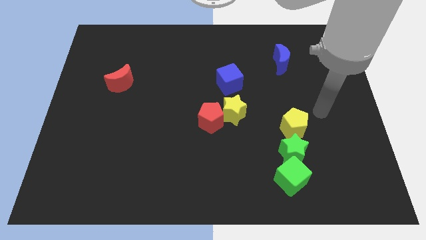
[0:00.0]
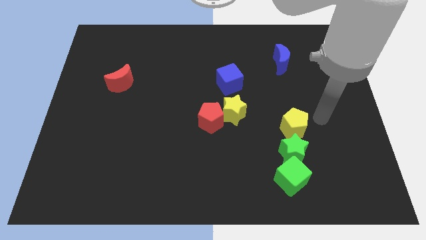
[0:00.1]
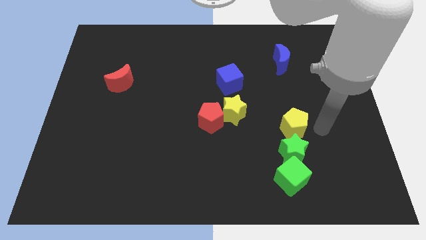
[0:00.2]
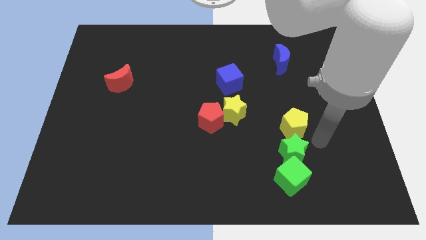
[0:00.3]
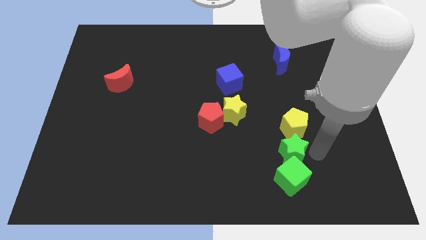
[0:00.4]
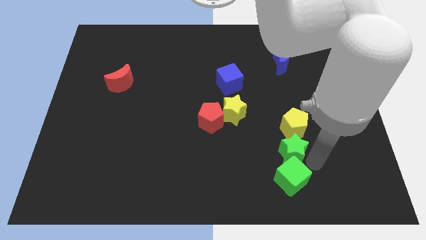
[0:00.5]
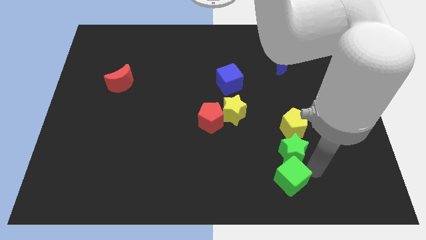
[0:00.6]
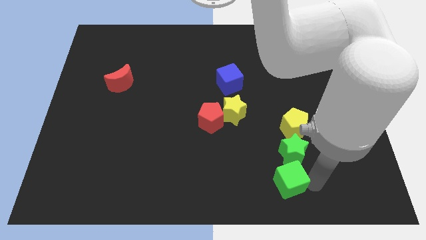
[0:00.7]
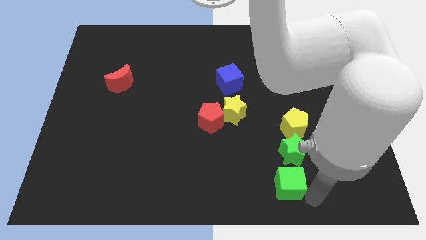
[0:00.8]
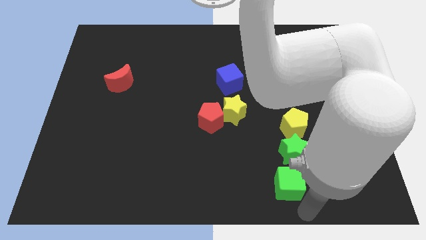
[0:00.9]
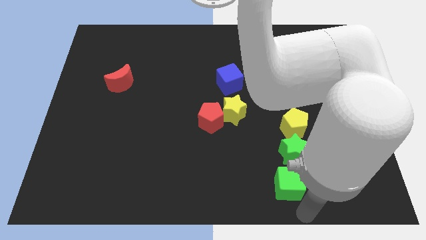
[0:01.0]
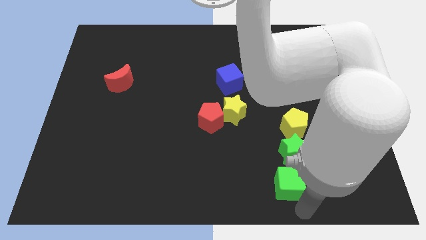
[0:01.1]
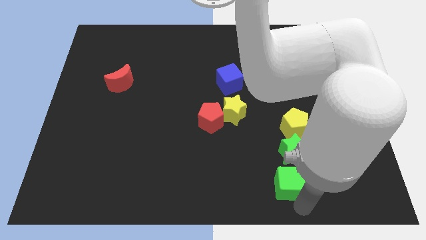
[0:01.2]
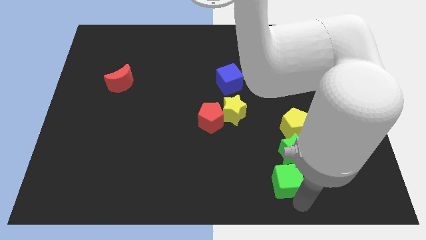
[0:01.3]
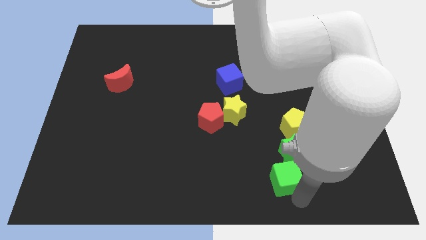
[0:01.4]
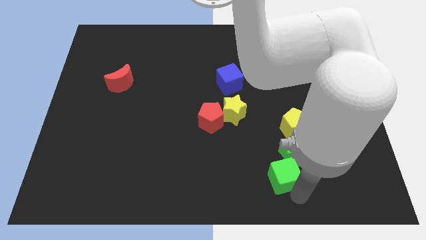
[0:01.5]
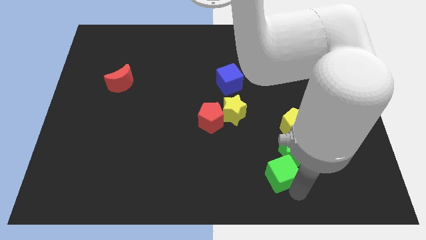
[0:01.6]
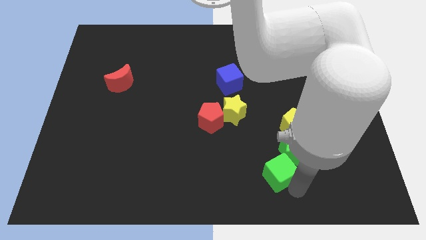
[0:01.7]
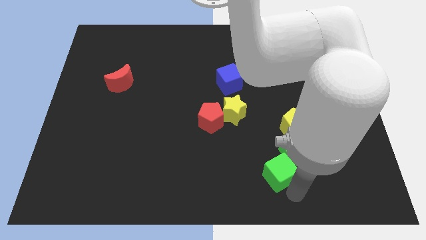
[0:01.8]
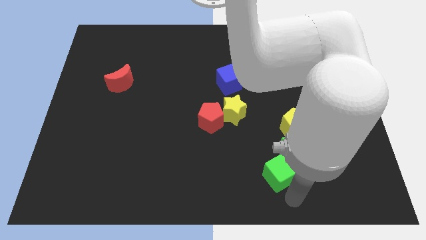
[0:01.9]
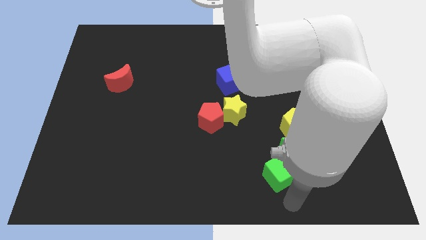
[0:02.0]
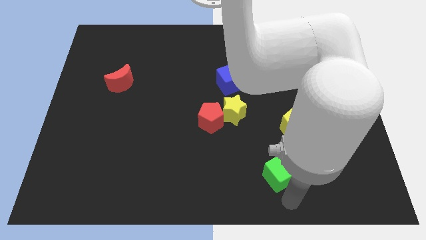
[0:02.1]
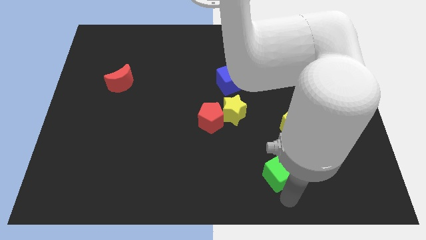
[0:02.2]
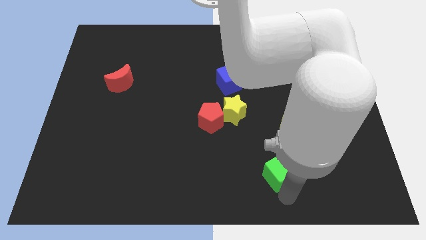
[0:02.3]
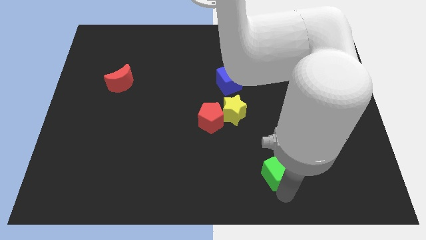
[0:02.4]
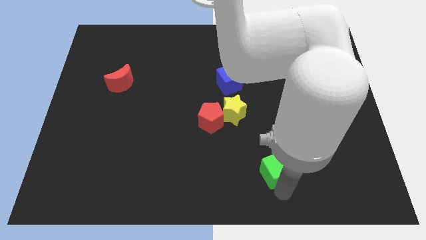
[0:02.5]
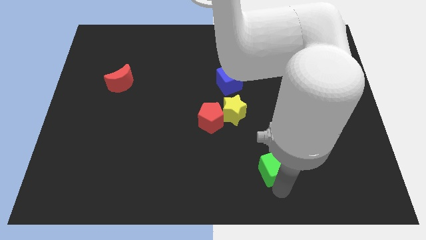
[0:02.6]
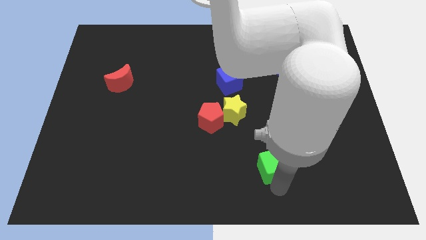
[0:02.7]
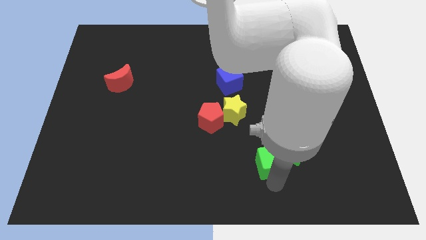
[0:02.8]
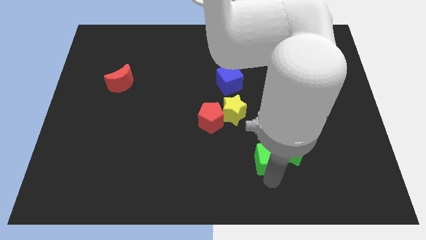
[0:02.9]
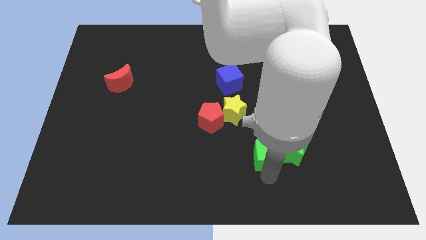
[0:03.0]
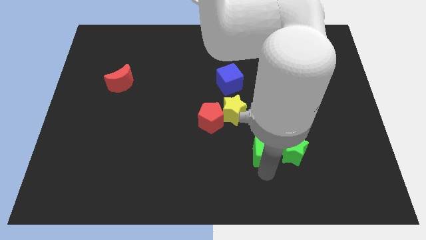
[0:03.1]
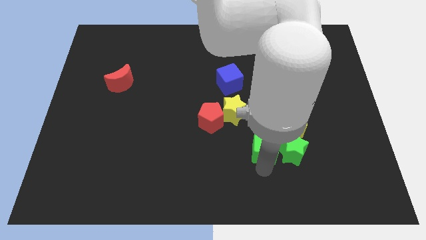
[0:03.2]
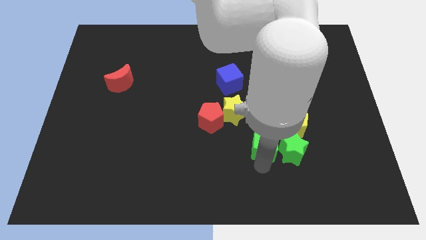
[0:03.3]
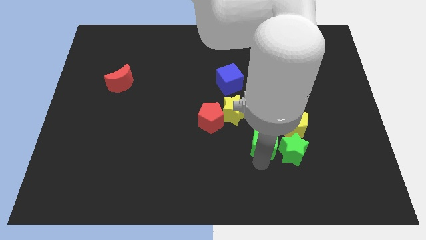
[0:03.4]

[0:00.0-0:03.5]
push the green cube up somewhat

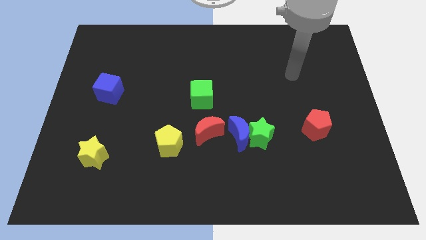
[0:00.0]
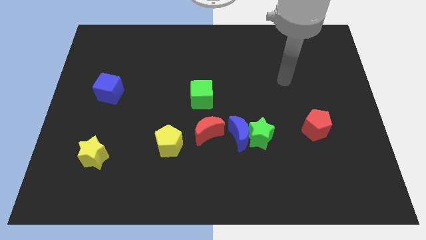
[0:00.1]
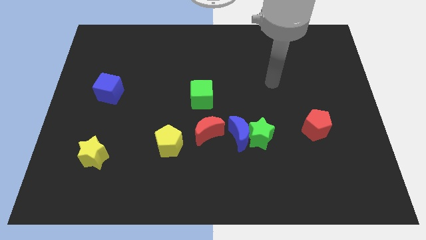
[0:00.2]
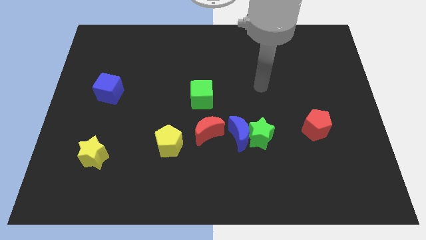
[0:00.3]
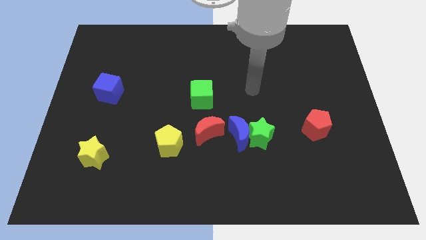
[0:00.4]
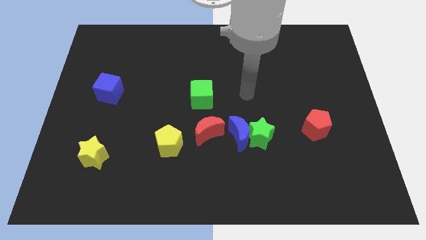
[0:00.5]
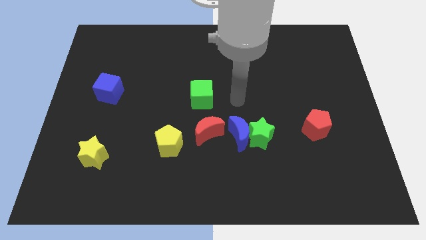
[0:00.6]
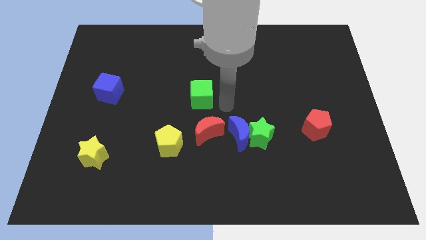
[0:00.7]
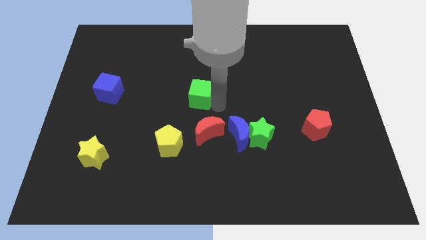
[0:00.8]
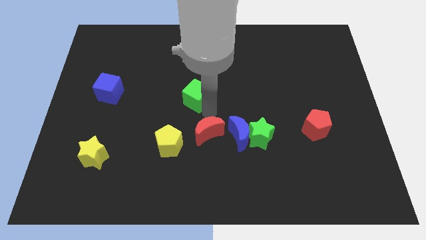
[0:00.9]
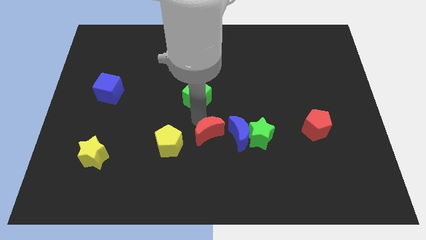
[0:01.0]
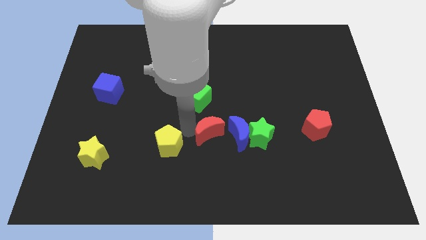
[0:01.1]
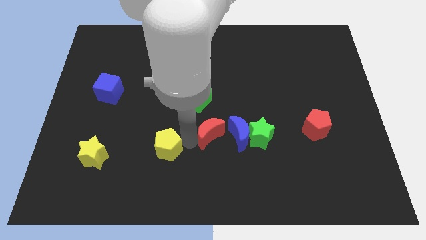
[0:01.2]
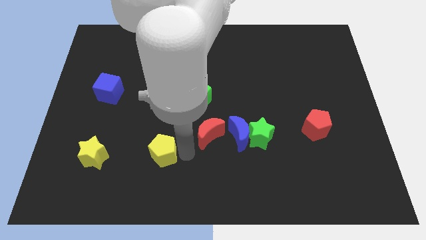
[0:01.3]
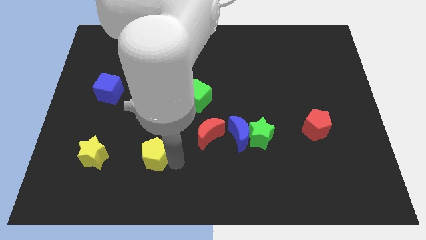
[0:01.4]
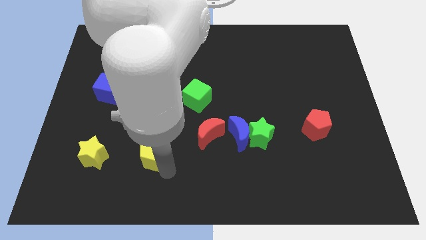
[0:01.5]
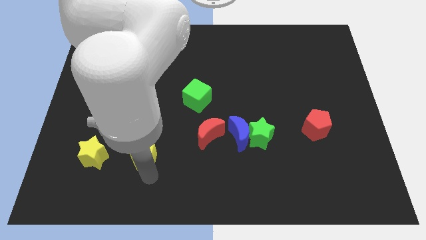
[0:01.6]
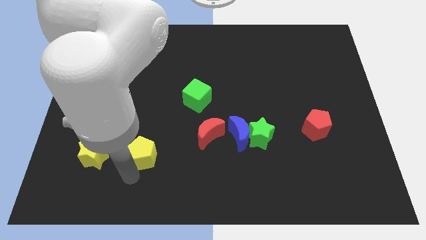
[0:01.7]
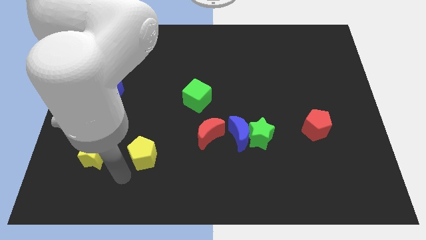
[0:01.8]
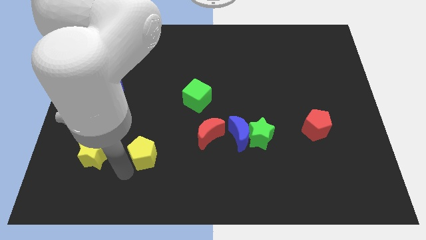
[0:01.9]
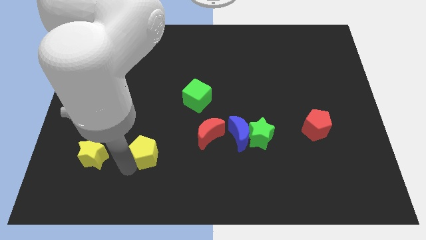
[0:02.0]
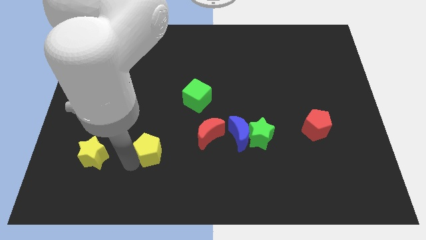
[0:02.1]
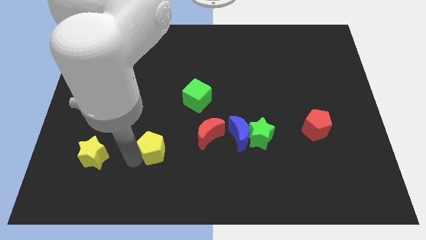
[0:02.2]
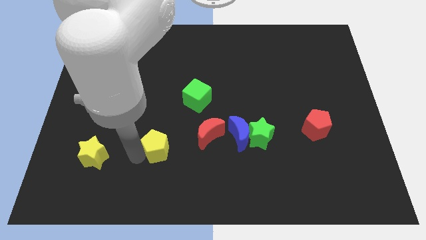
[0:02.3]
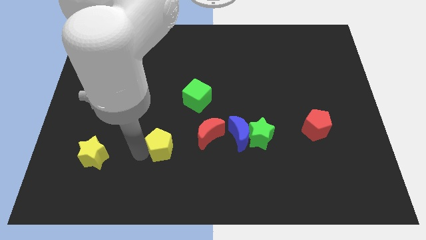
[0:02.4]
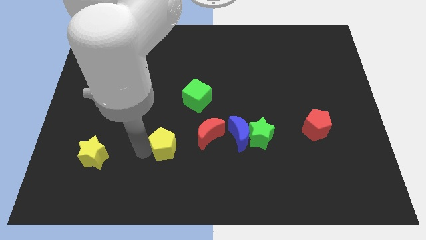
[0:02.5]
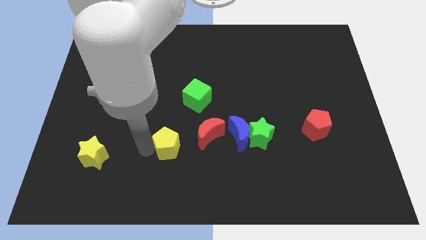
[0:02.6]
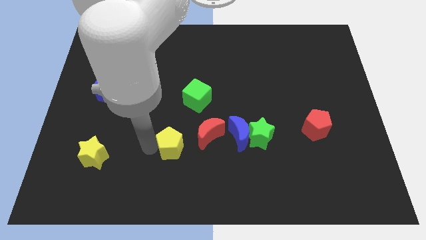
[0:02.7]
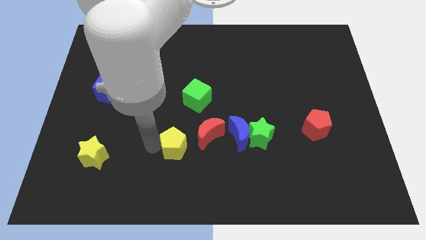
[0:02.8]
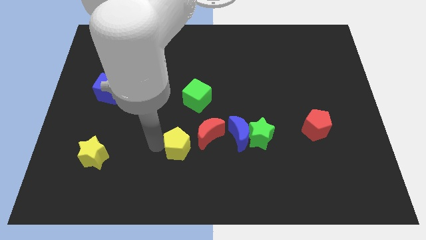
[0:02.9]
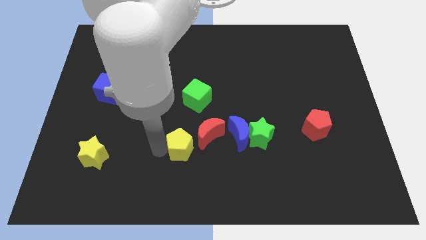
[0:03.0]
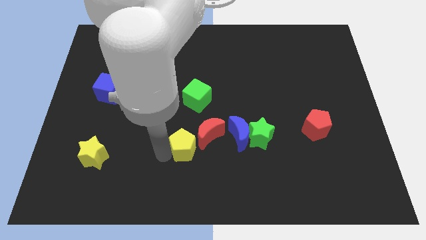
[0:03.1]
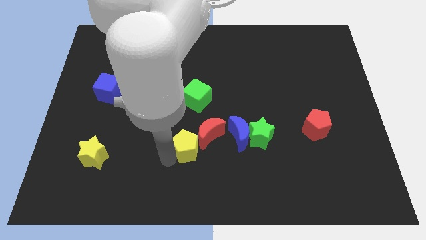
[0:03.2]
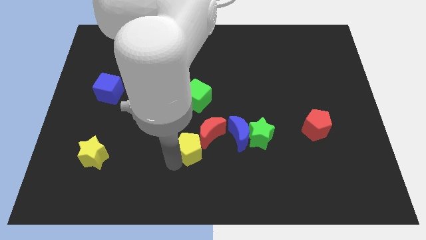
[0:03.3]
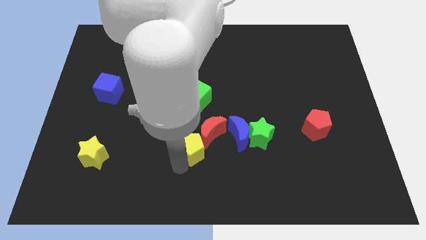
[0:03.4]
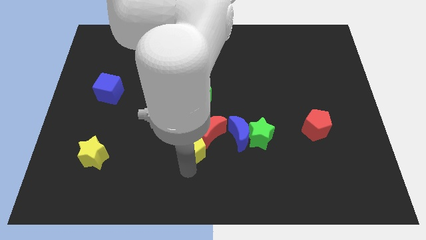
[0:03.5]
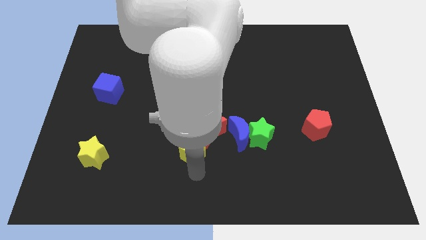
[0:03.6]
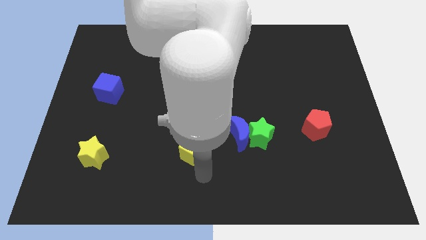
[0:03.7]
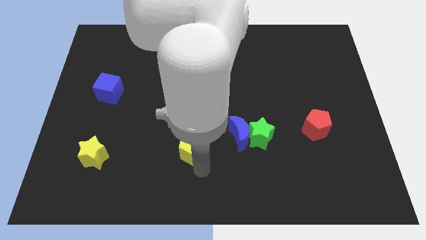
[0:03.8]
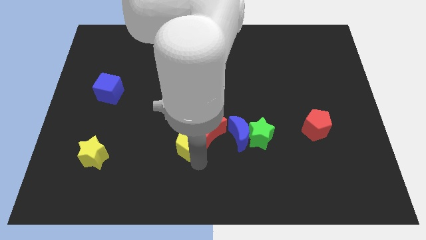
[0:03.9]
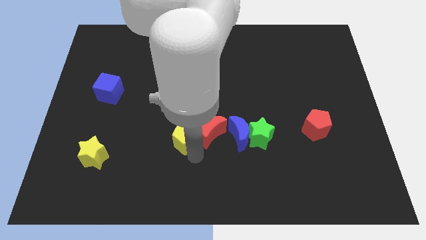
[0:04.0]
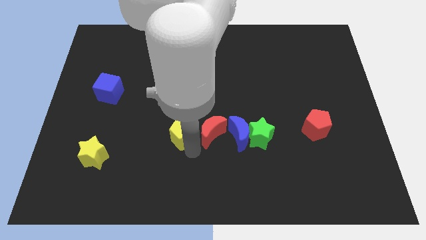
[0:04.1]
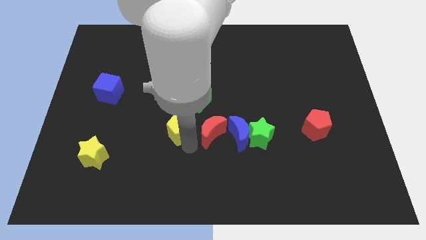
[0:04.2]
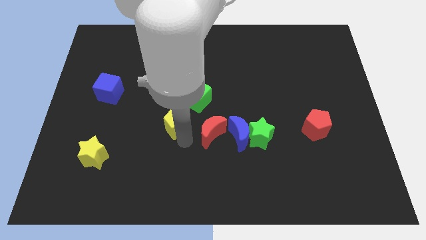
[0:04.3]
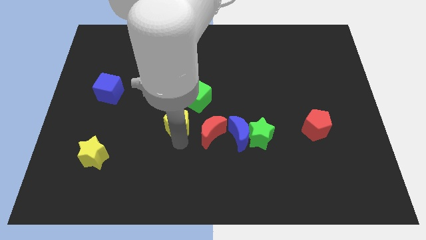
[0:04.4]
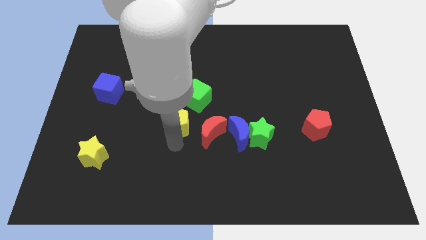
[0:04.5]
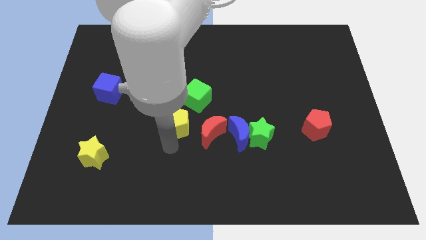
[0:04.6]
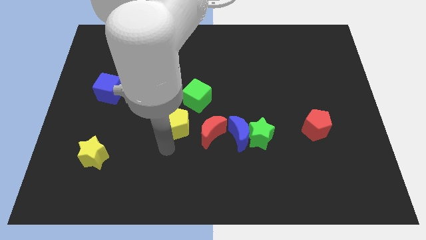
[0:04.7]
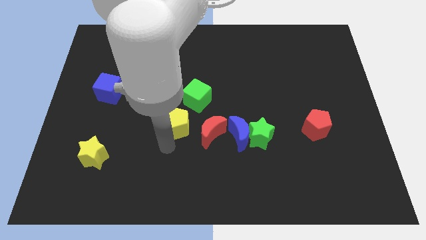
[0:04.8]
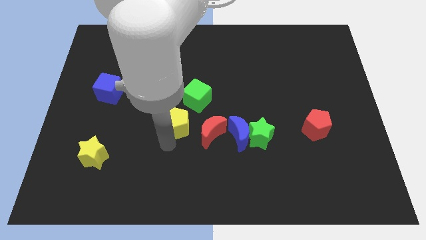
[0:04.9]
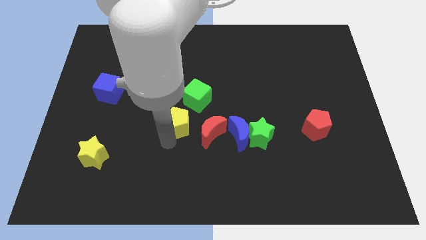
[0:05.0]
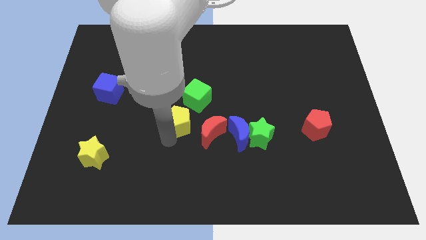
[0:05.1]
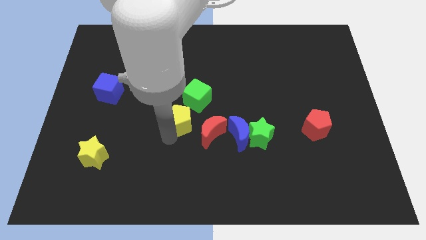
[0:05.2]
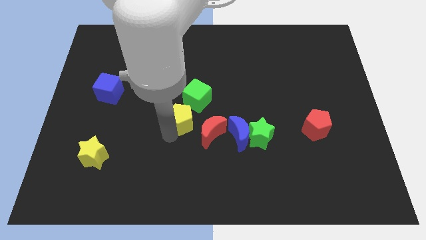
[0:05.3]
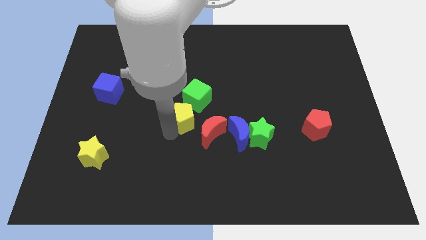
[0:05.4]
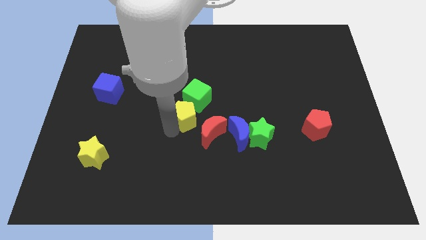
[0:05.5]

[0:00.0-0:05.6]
slide the yellow pentagon a little bit upwards and to the right
